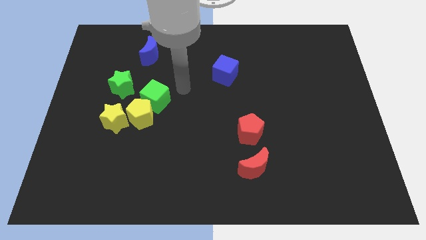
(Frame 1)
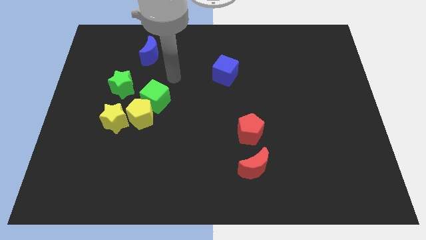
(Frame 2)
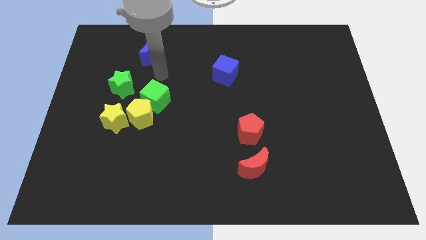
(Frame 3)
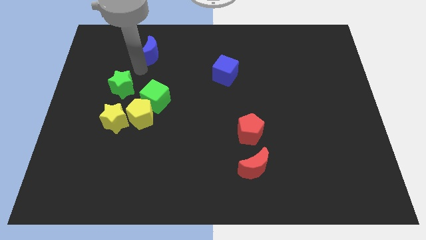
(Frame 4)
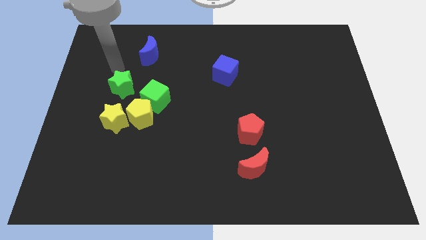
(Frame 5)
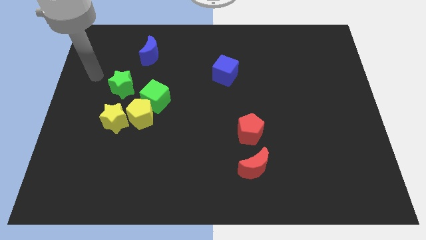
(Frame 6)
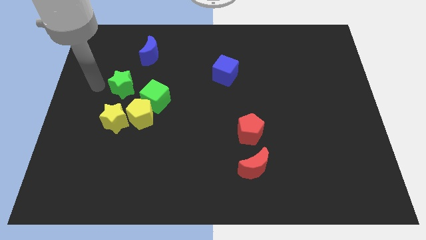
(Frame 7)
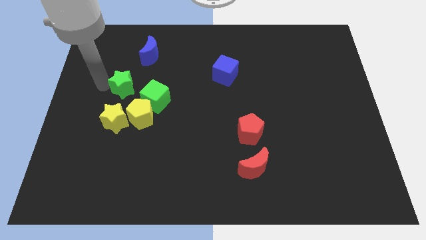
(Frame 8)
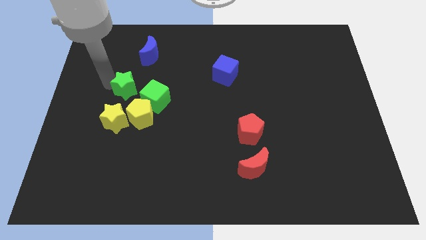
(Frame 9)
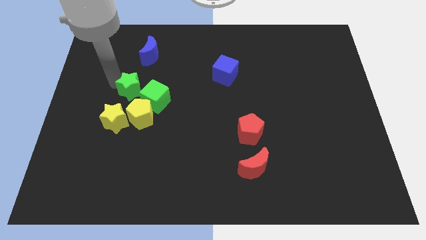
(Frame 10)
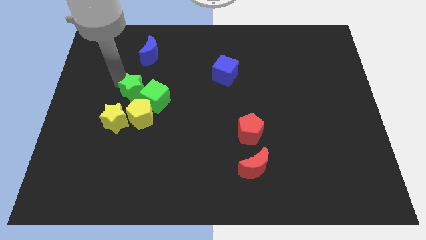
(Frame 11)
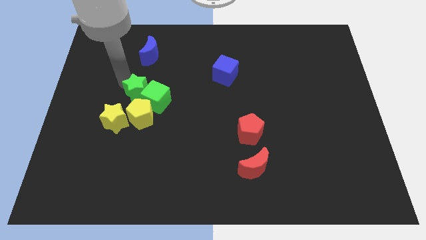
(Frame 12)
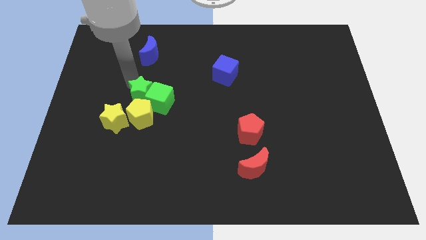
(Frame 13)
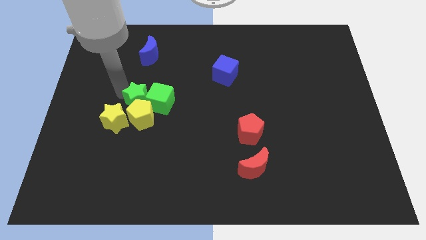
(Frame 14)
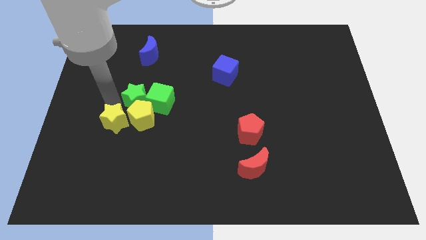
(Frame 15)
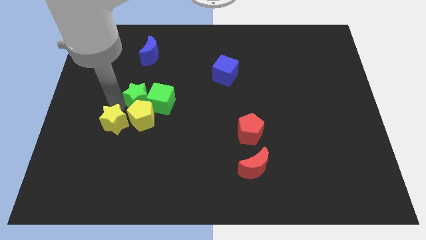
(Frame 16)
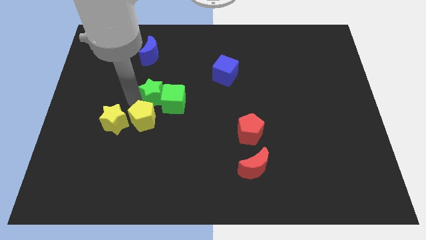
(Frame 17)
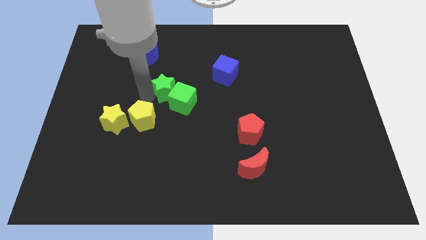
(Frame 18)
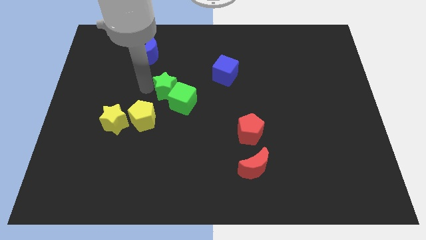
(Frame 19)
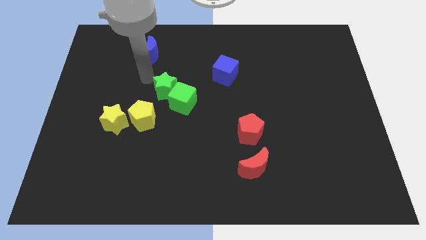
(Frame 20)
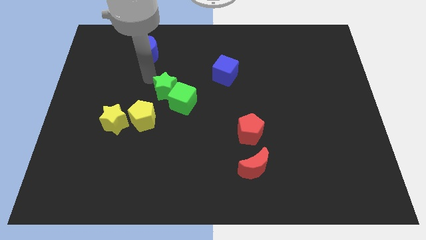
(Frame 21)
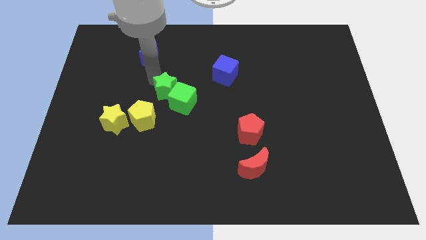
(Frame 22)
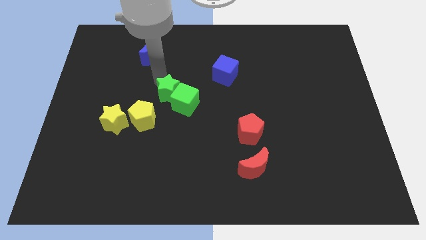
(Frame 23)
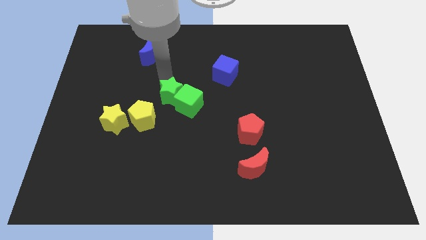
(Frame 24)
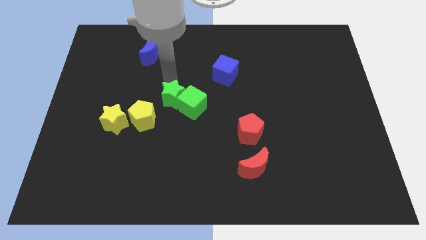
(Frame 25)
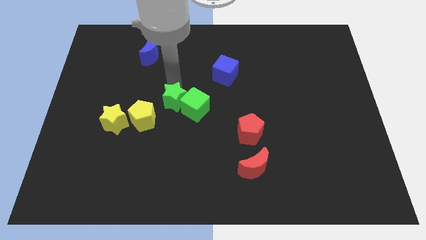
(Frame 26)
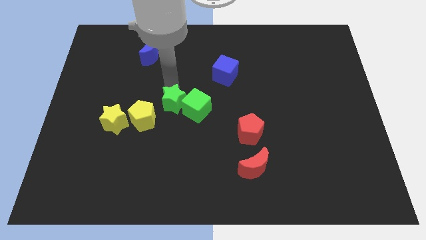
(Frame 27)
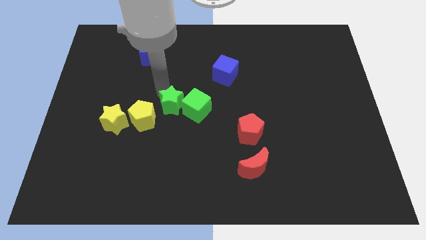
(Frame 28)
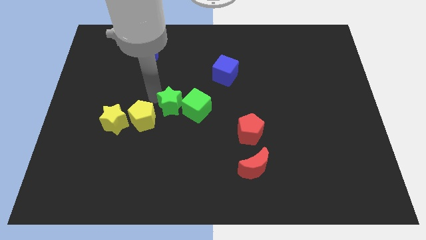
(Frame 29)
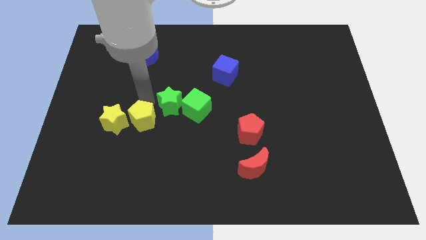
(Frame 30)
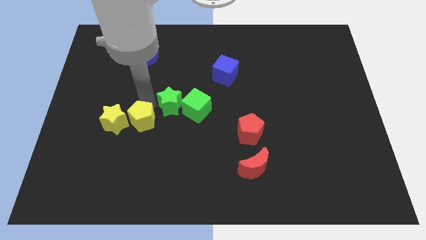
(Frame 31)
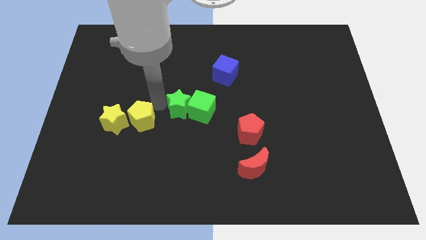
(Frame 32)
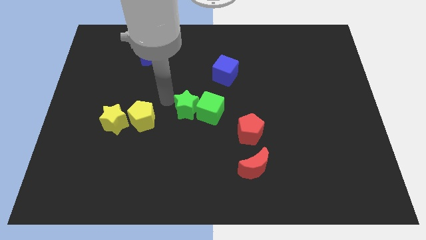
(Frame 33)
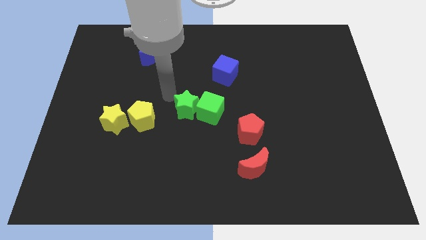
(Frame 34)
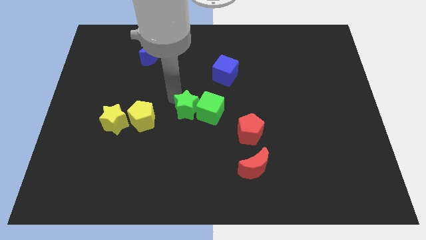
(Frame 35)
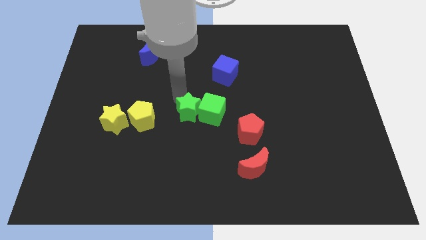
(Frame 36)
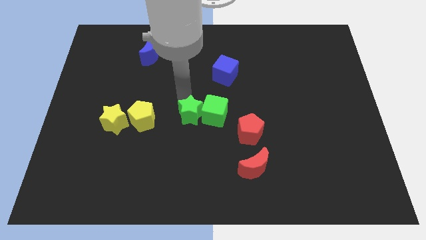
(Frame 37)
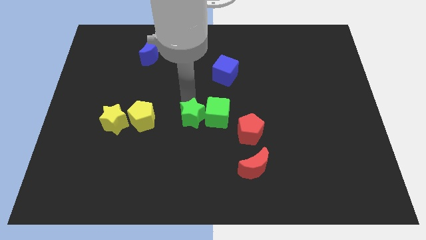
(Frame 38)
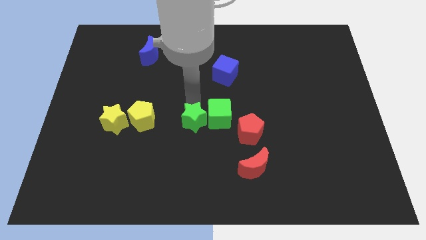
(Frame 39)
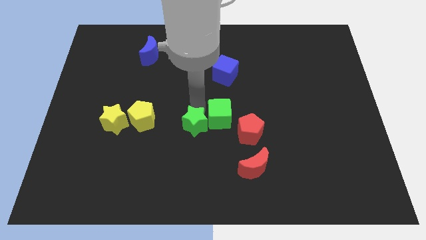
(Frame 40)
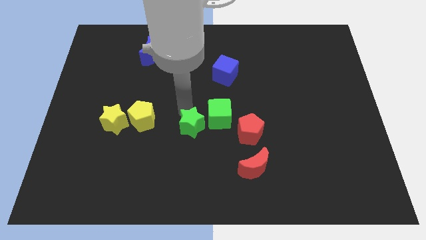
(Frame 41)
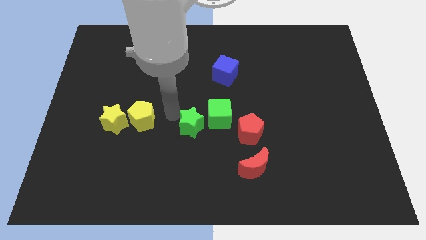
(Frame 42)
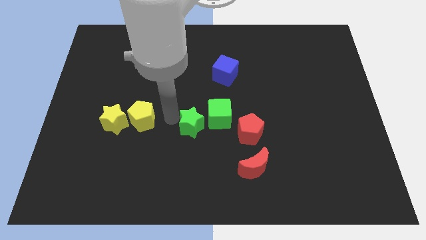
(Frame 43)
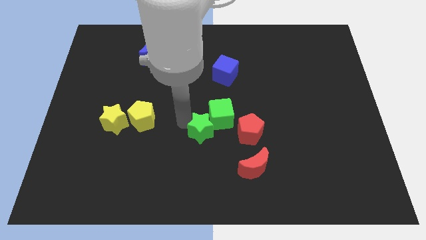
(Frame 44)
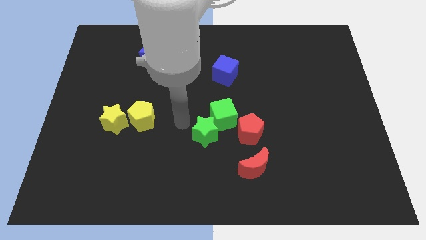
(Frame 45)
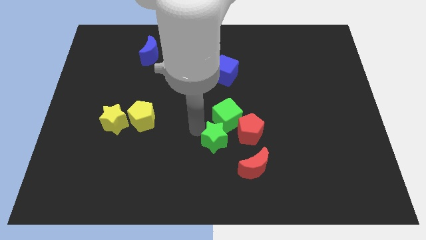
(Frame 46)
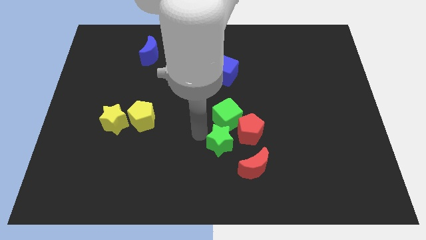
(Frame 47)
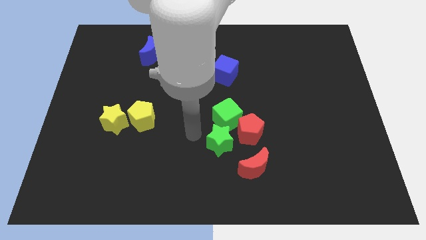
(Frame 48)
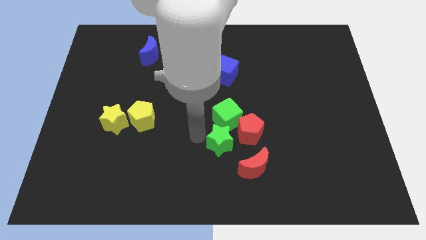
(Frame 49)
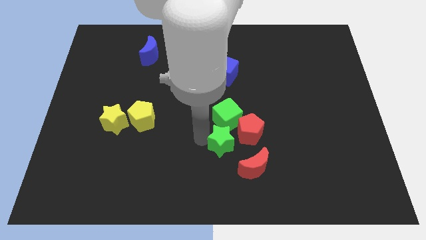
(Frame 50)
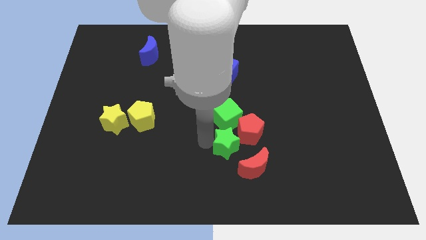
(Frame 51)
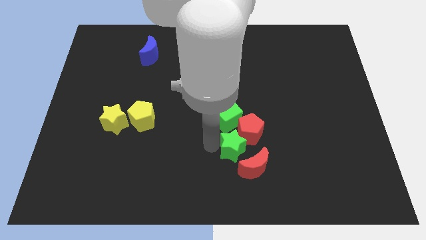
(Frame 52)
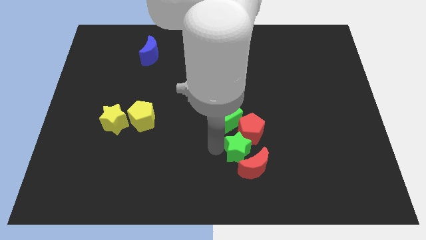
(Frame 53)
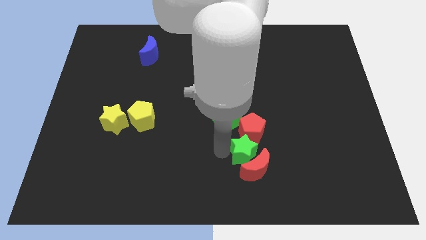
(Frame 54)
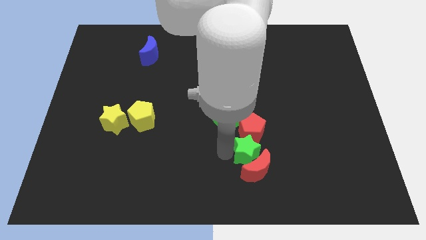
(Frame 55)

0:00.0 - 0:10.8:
move the green star to the bottom right of the red pentagon

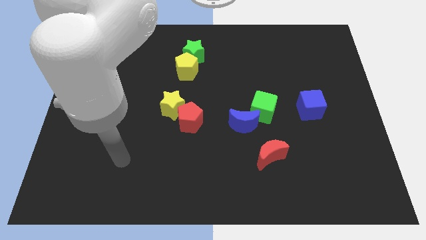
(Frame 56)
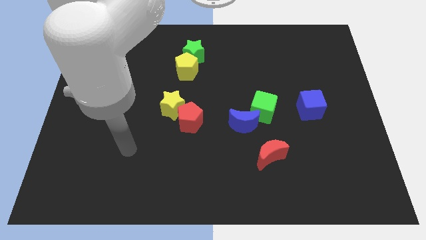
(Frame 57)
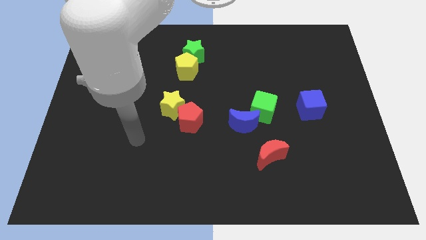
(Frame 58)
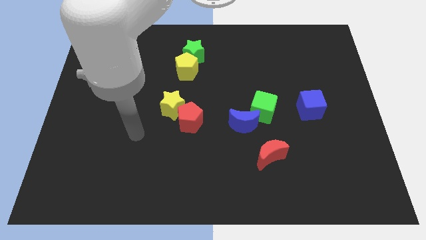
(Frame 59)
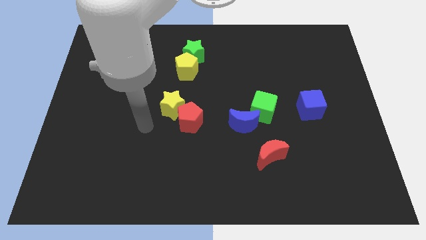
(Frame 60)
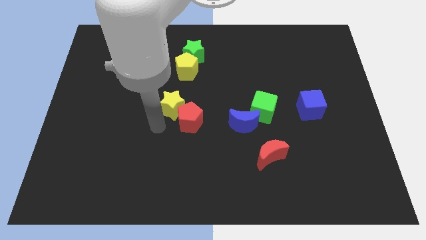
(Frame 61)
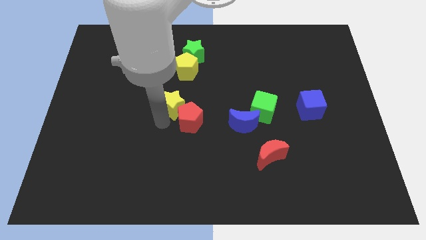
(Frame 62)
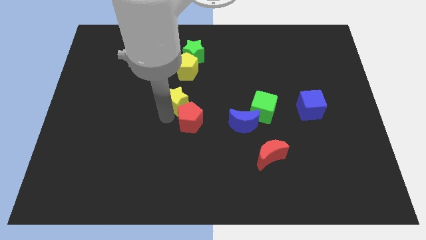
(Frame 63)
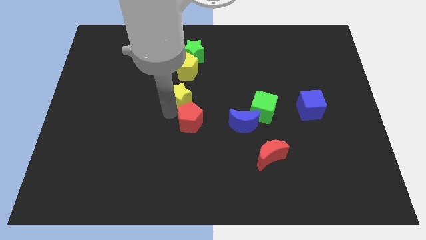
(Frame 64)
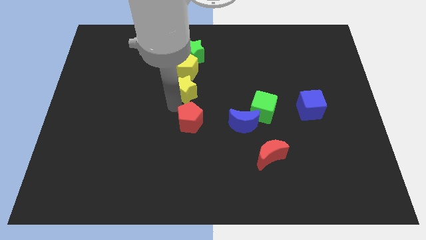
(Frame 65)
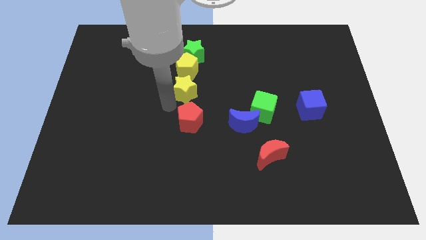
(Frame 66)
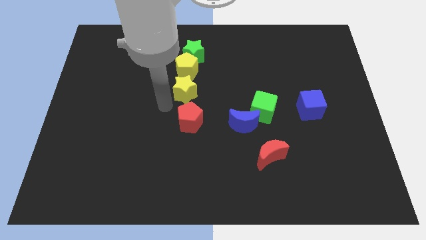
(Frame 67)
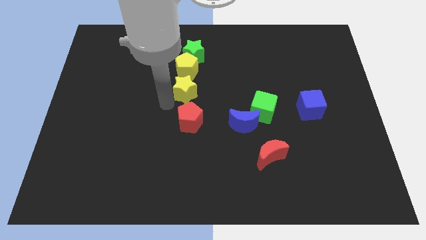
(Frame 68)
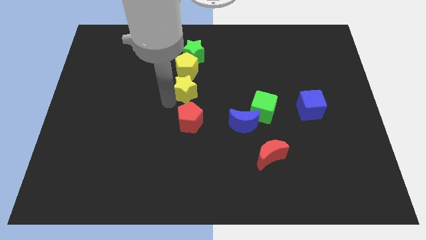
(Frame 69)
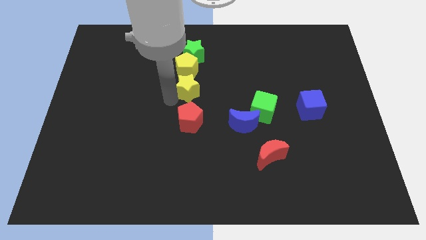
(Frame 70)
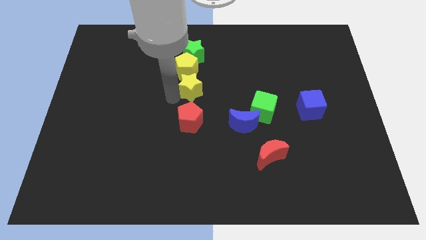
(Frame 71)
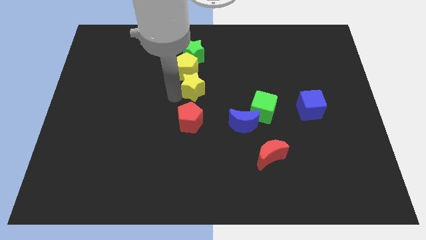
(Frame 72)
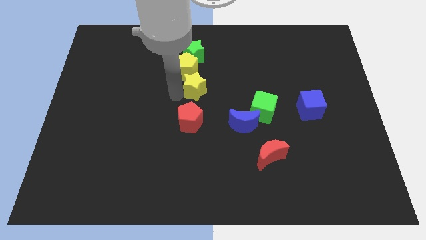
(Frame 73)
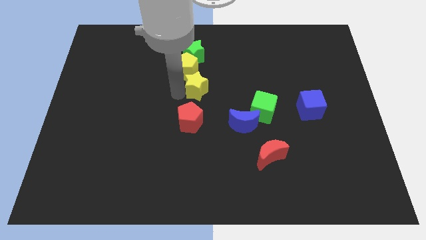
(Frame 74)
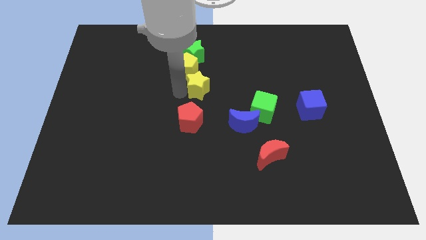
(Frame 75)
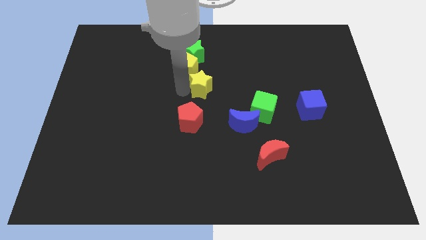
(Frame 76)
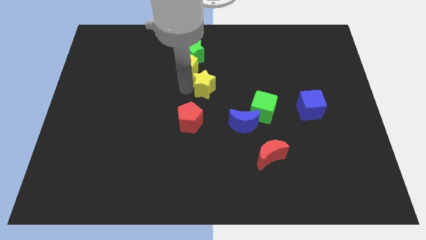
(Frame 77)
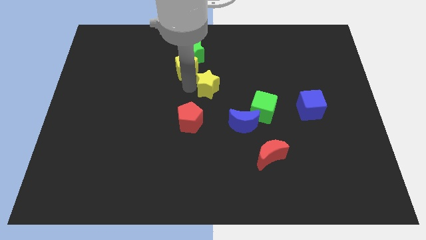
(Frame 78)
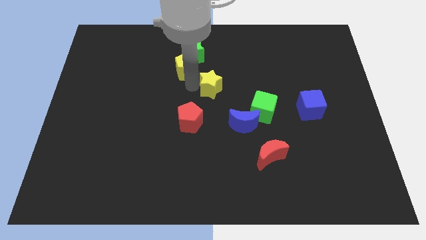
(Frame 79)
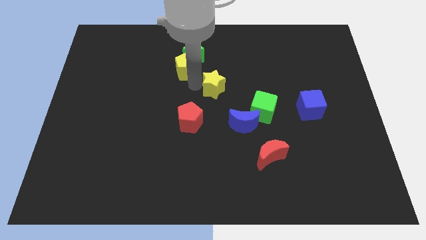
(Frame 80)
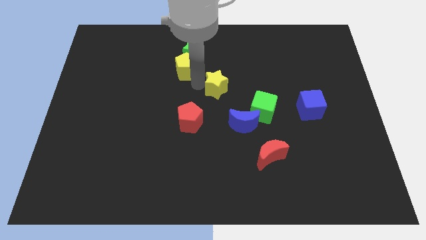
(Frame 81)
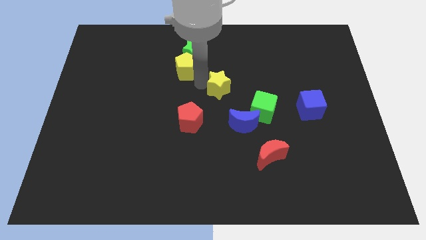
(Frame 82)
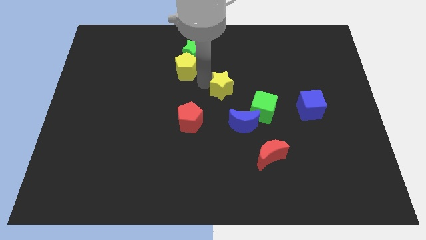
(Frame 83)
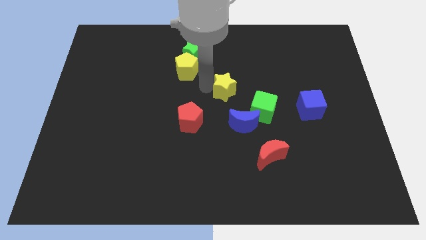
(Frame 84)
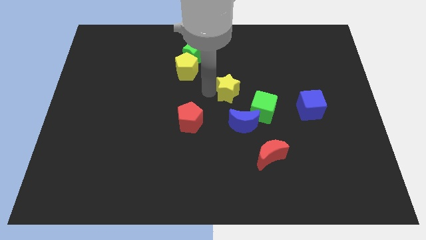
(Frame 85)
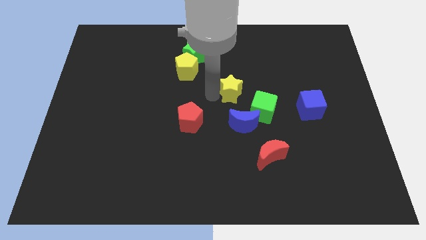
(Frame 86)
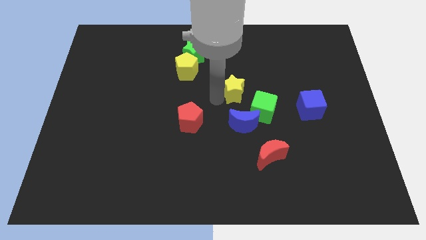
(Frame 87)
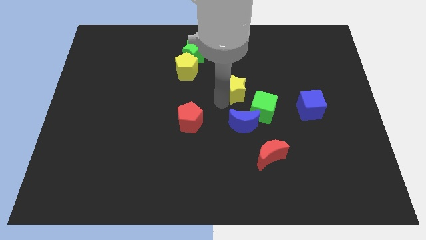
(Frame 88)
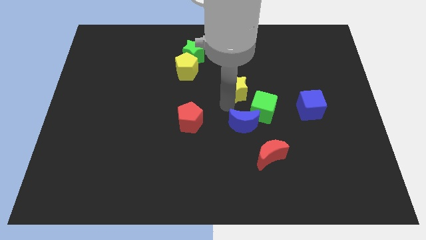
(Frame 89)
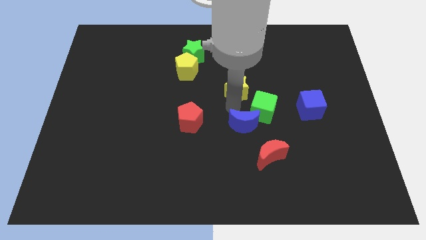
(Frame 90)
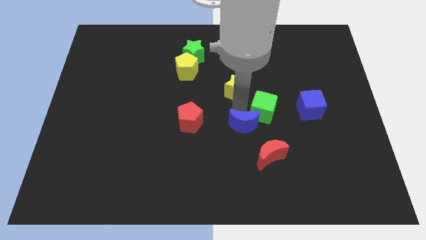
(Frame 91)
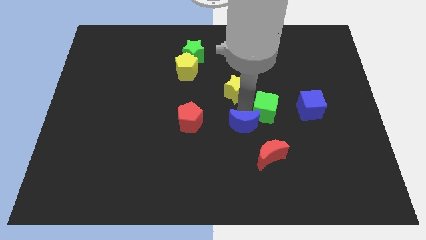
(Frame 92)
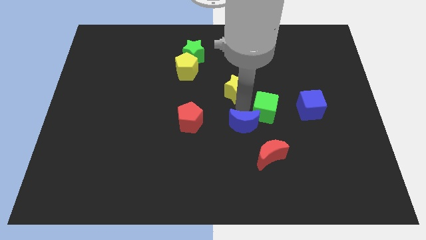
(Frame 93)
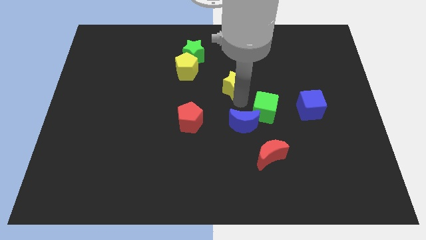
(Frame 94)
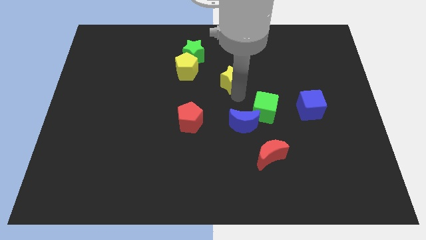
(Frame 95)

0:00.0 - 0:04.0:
put the yellow star to the right side of the yellow pentagon
